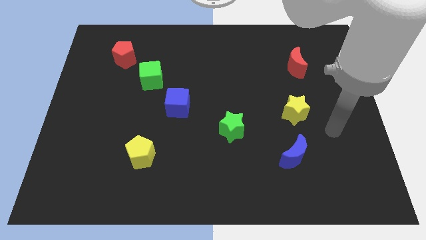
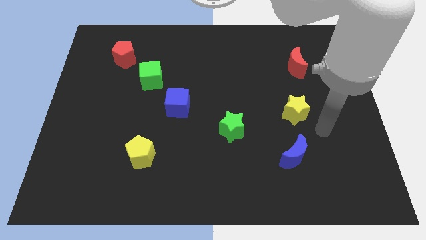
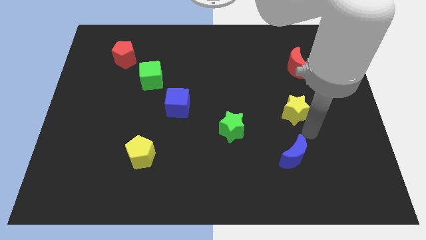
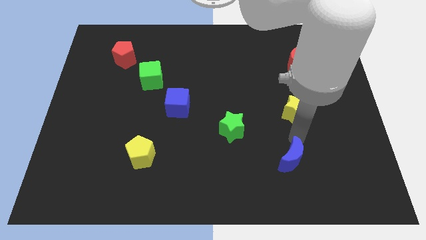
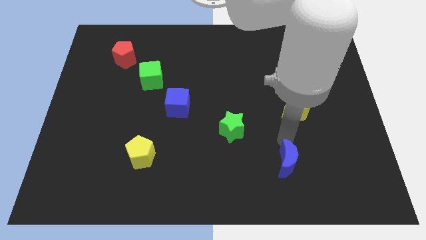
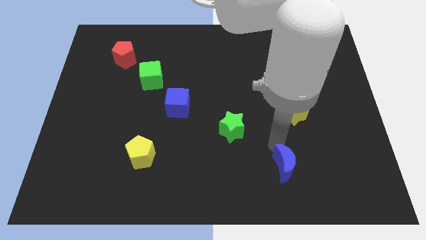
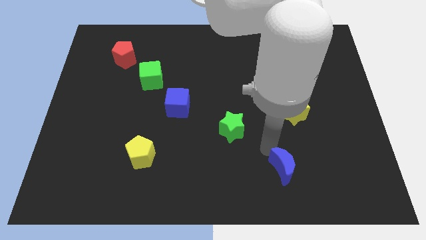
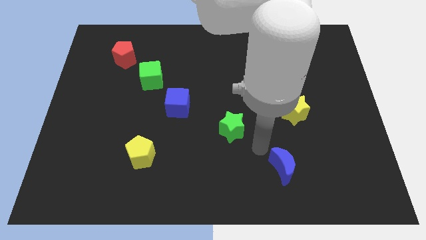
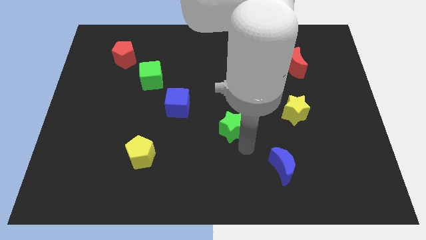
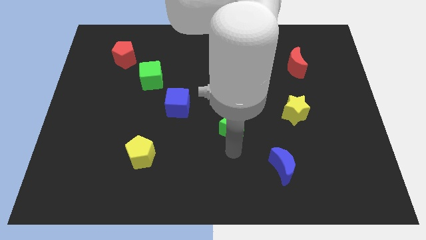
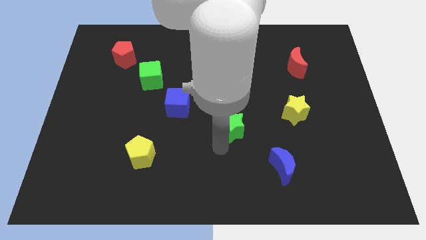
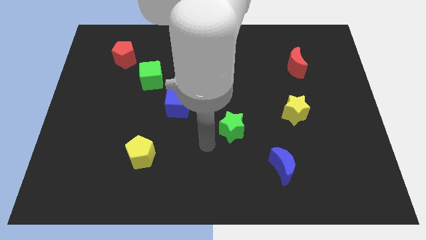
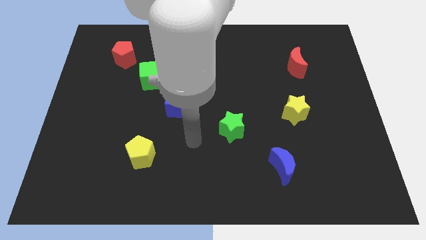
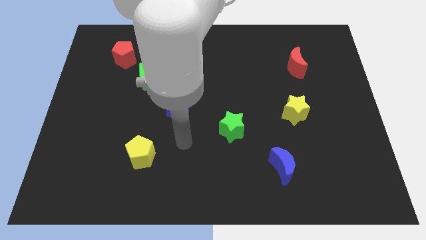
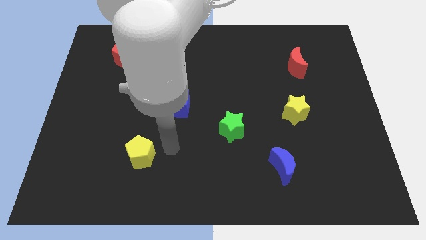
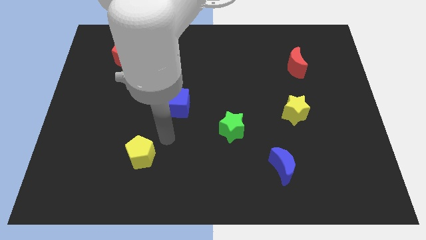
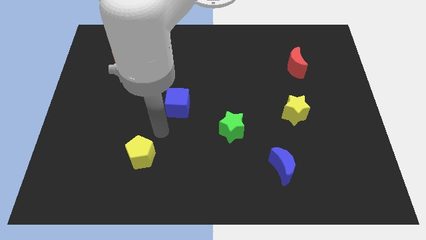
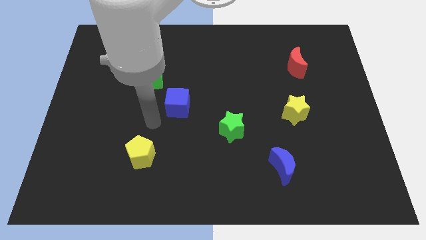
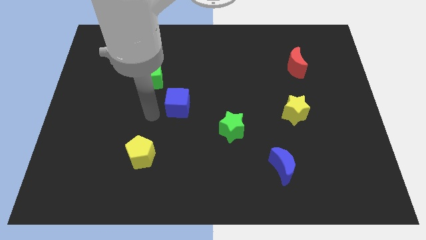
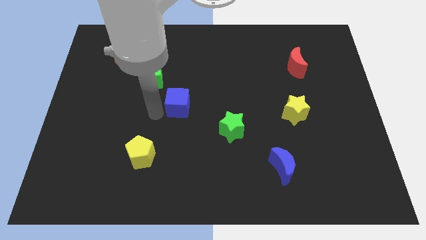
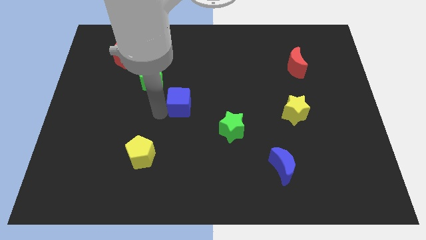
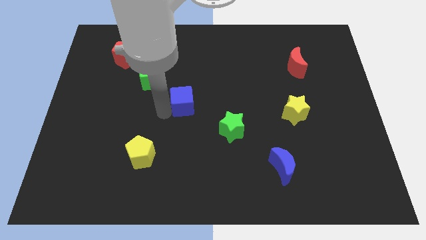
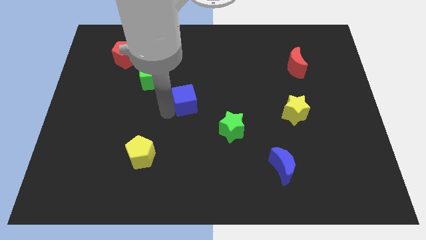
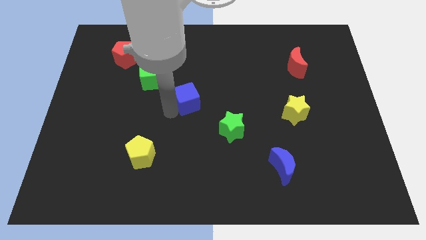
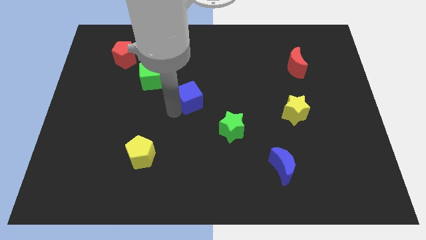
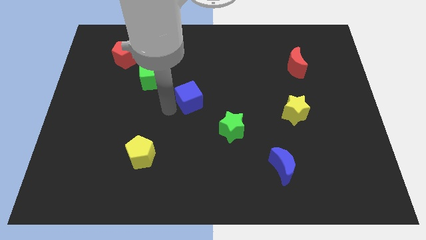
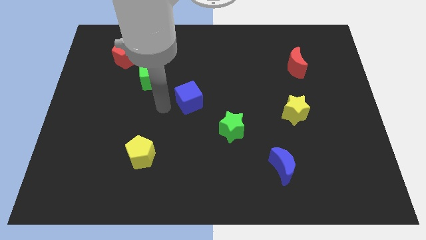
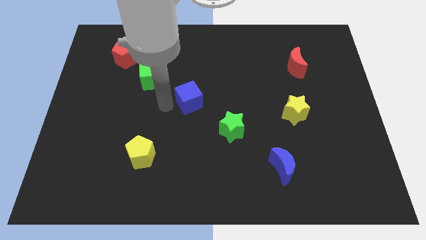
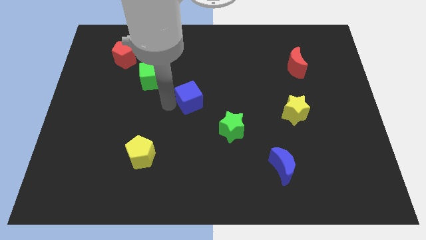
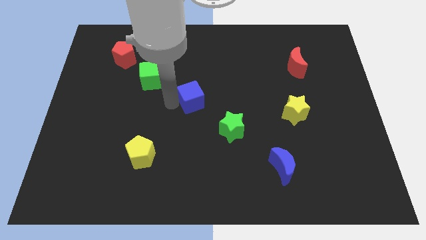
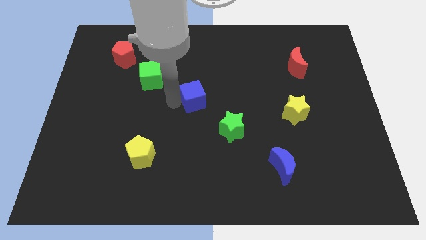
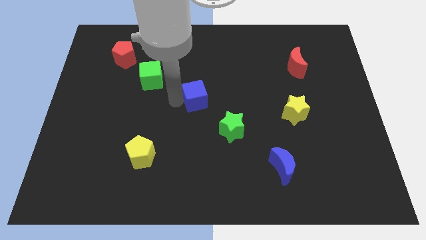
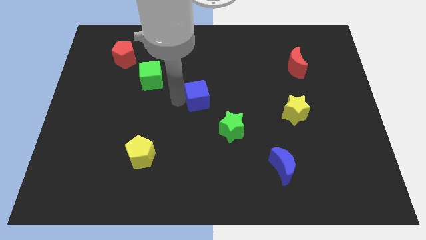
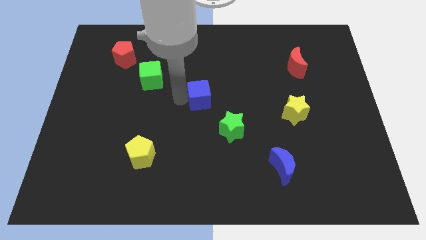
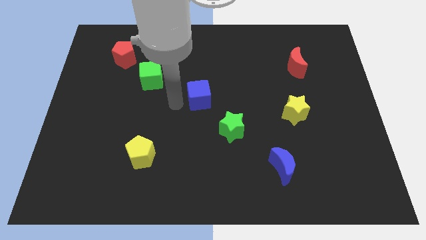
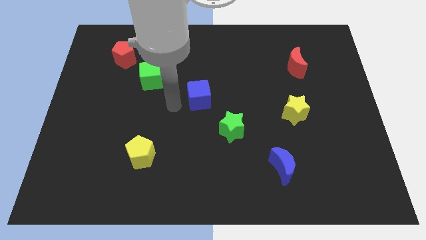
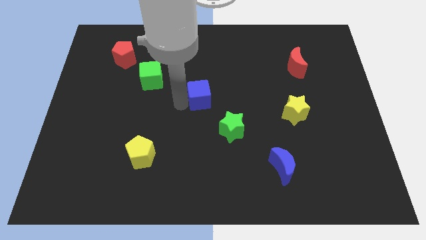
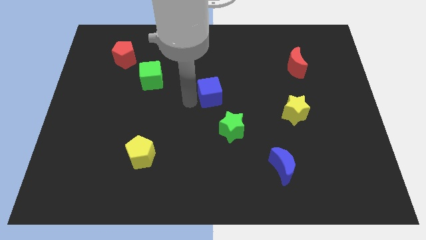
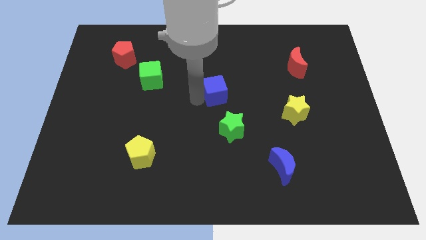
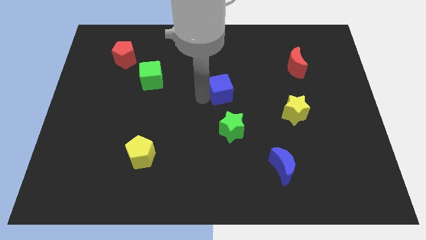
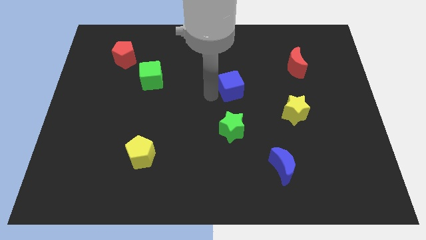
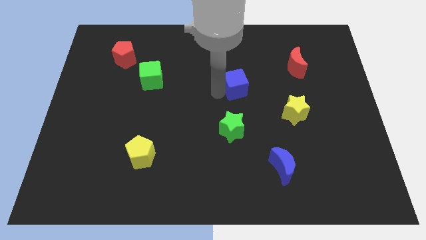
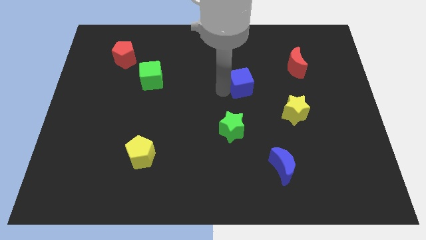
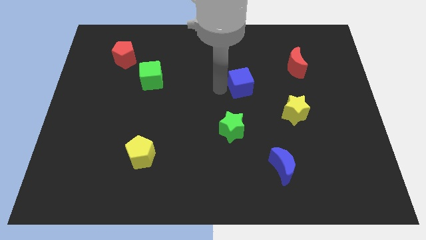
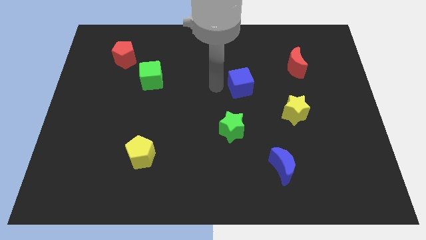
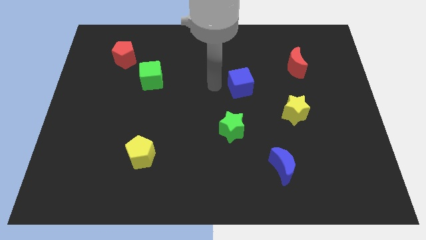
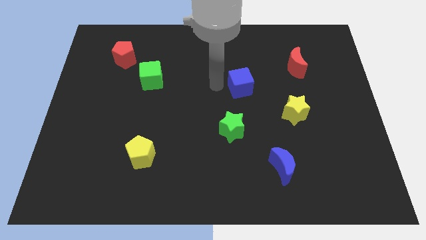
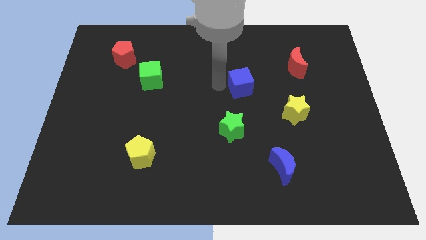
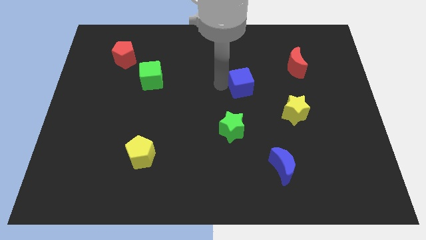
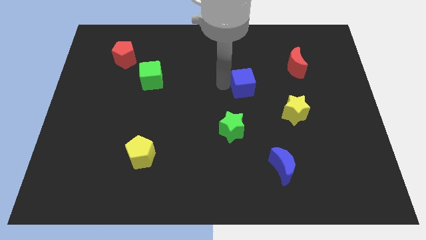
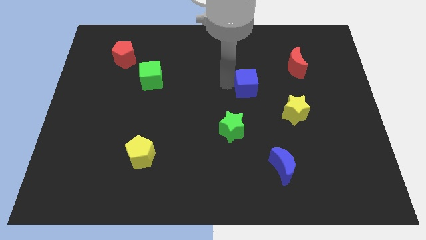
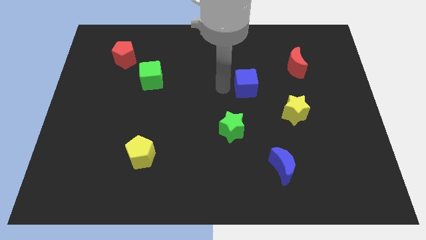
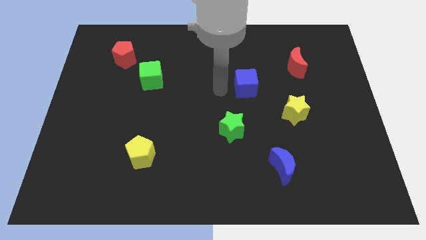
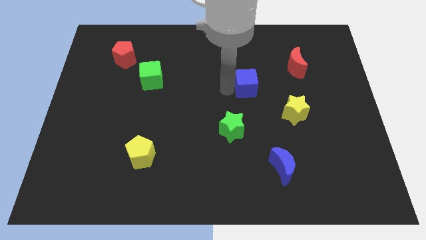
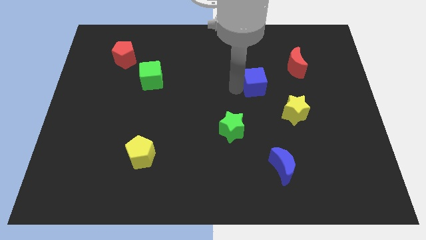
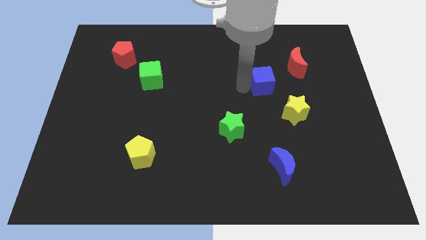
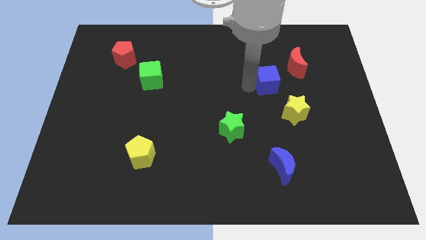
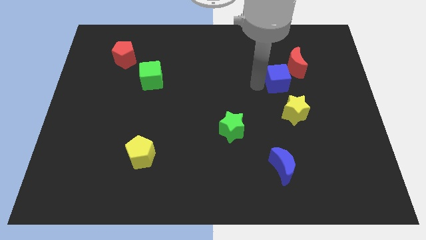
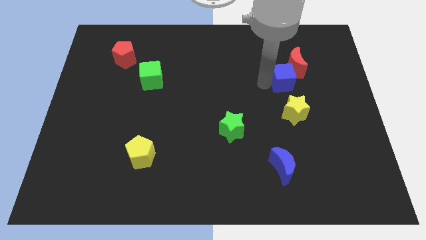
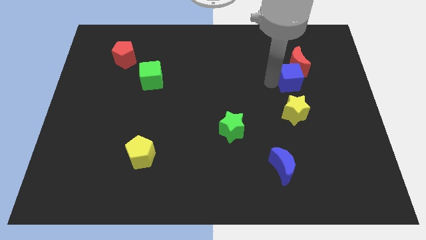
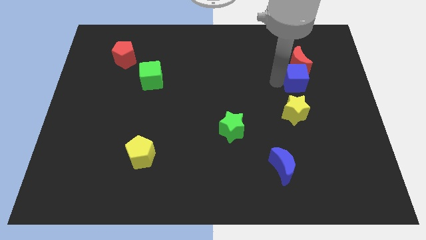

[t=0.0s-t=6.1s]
put the blue cube diagonally down and to the right of the red moon

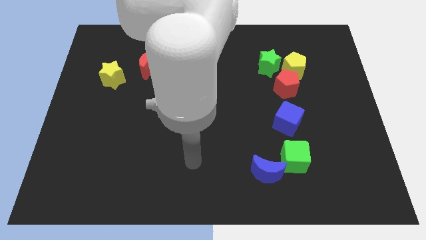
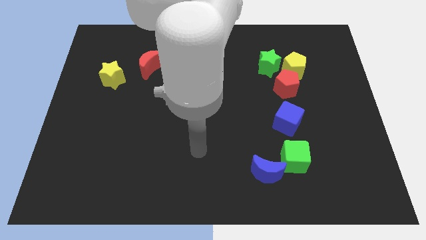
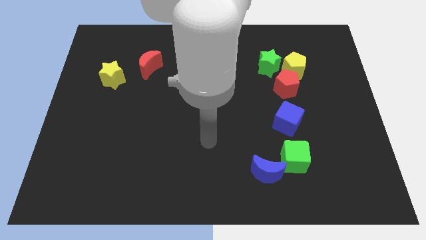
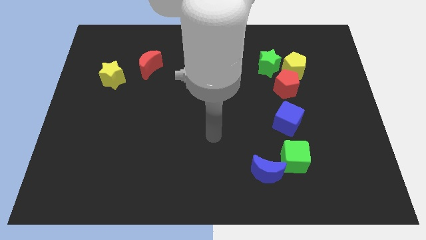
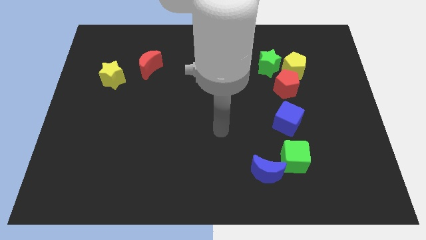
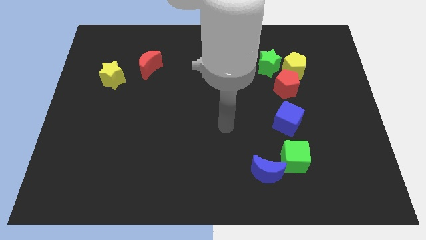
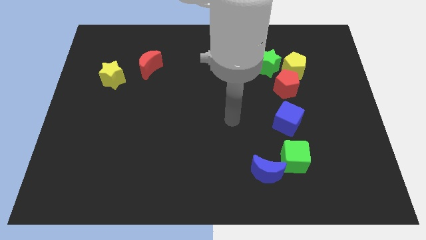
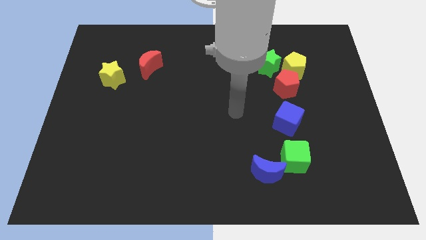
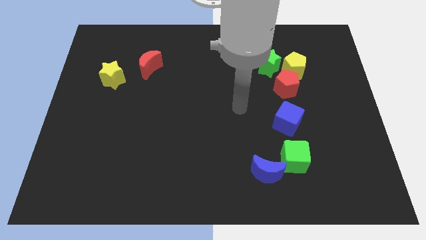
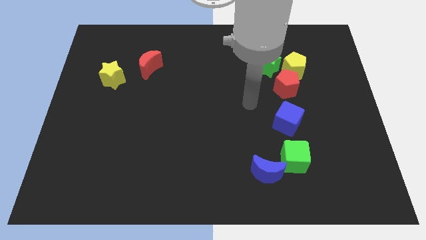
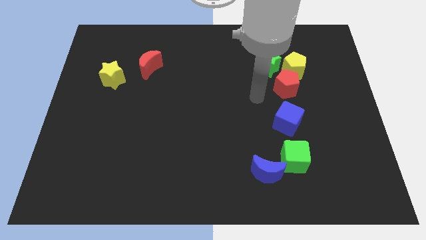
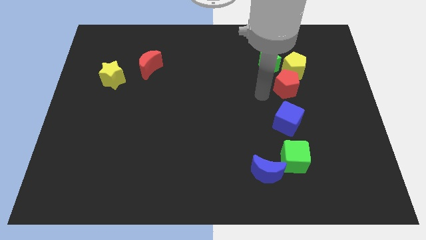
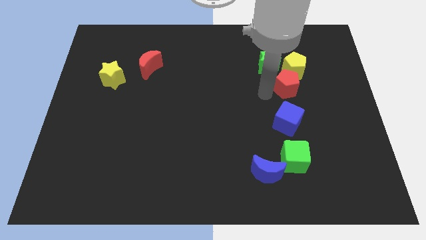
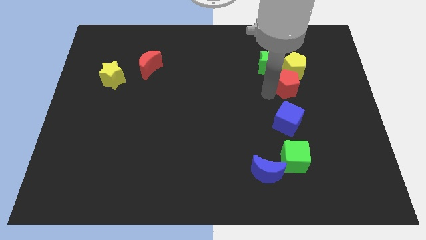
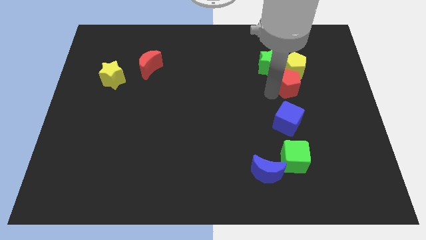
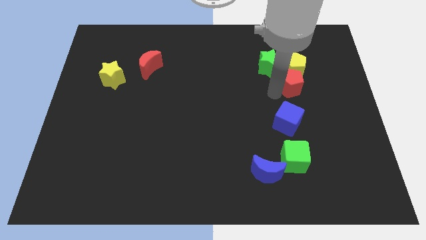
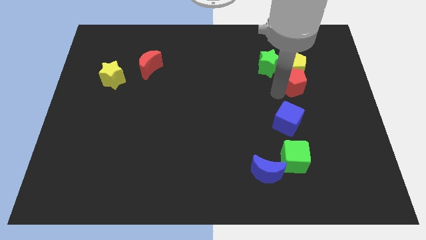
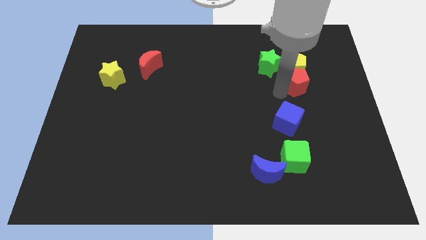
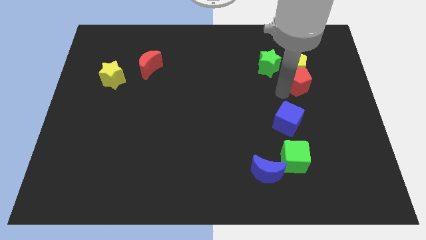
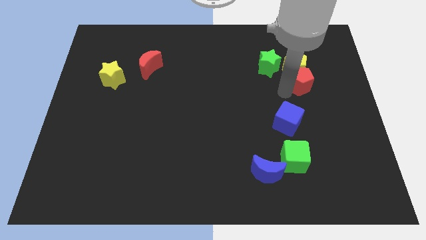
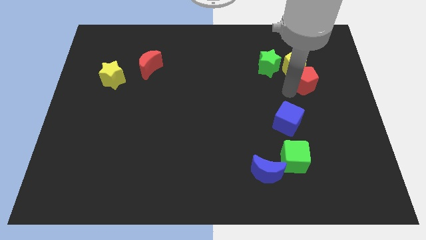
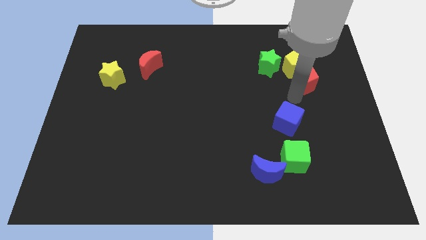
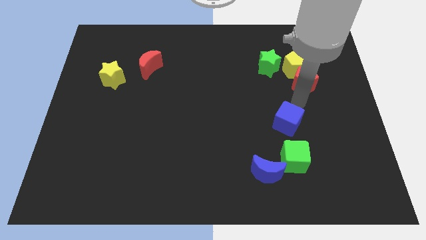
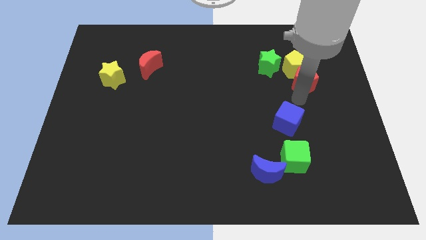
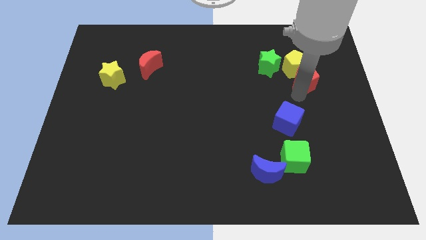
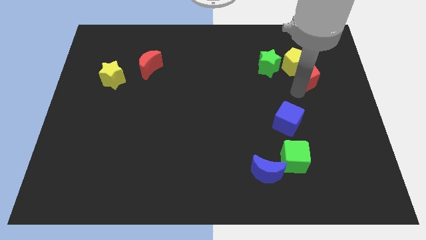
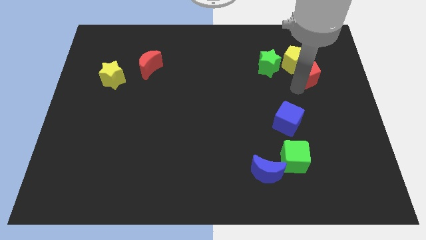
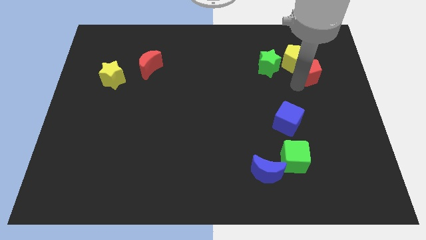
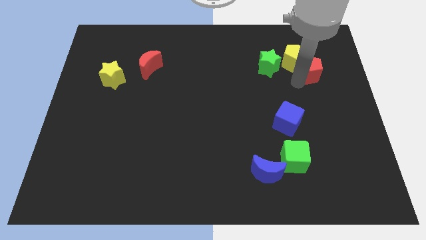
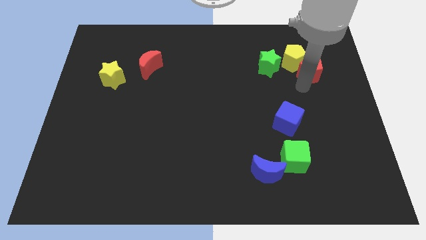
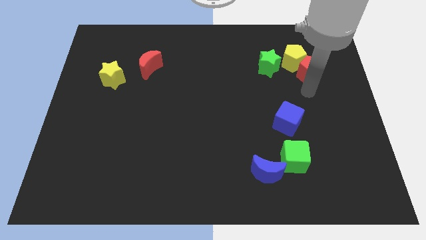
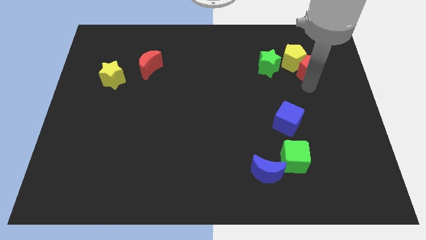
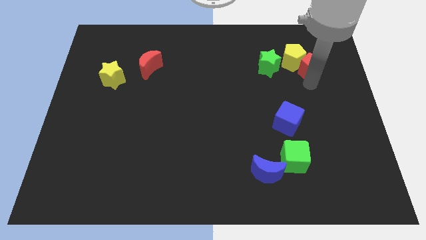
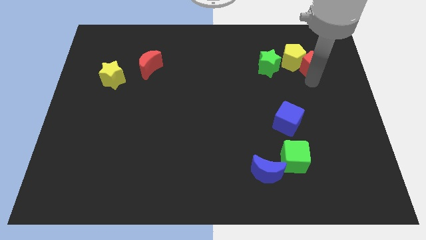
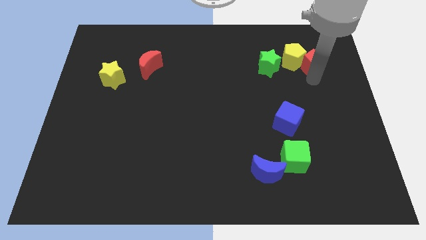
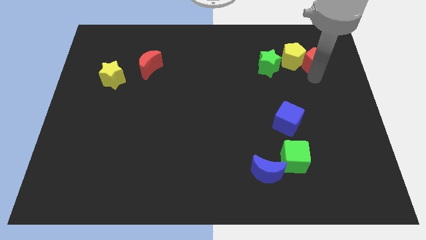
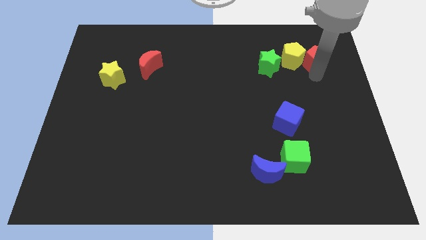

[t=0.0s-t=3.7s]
push the red pentagon diagonally up and to the right of the yellow pentagon
